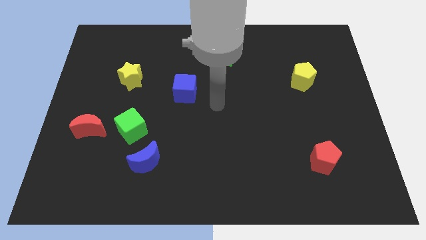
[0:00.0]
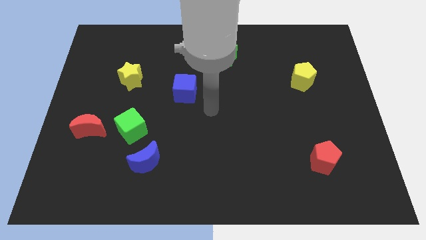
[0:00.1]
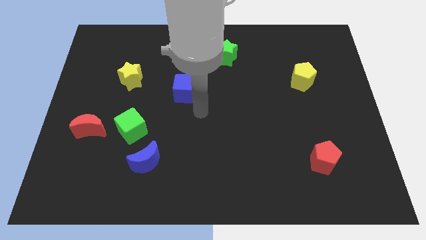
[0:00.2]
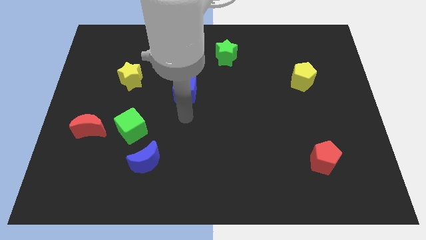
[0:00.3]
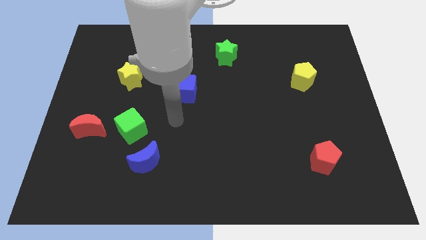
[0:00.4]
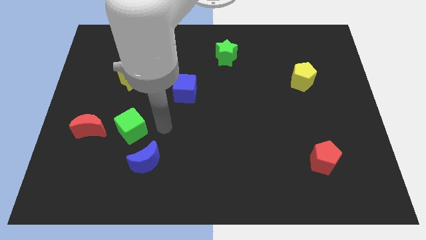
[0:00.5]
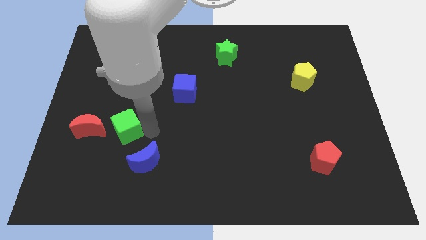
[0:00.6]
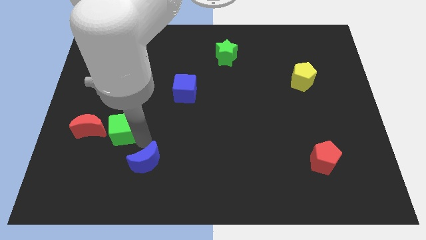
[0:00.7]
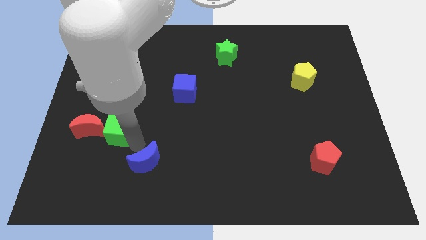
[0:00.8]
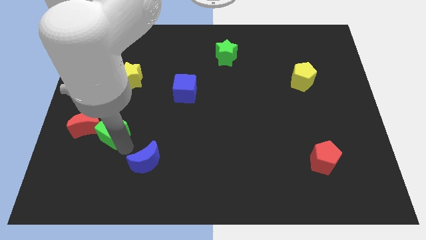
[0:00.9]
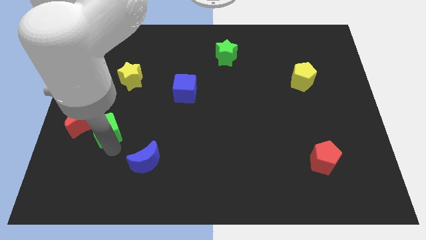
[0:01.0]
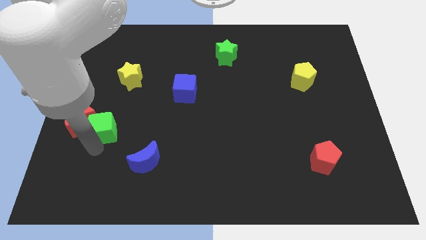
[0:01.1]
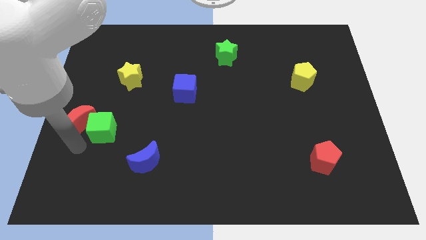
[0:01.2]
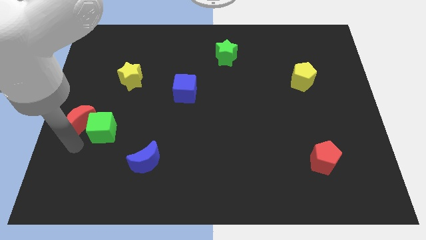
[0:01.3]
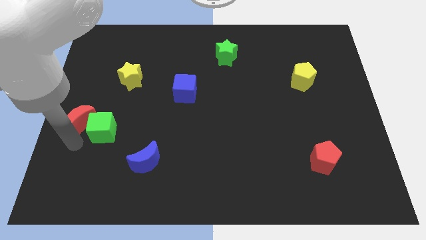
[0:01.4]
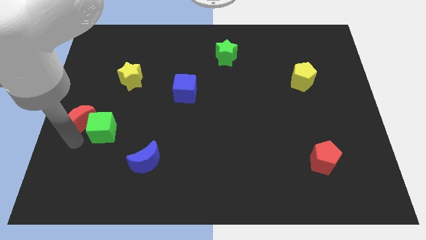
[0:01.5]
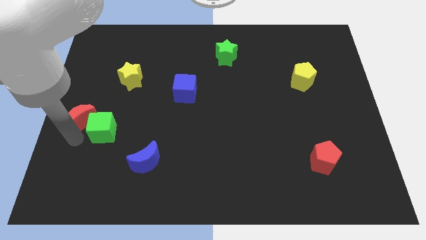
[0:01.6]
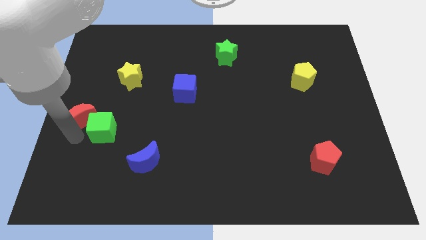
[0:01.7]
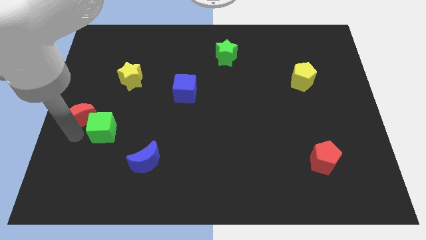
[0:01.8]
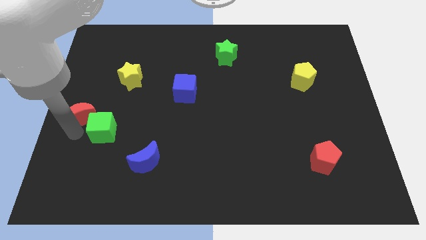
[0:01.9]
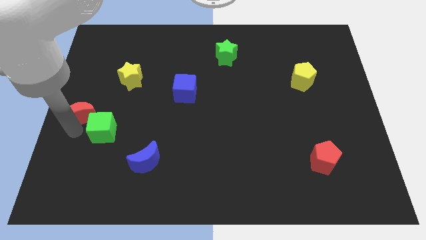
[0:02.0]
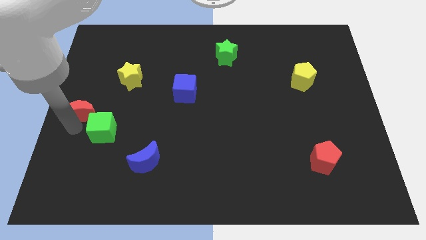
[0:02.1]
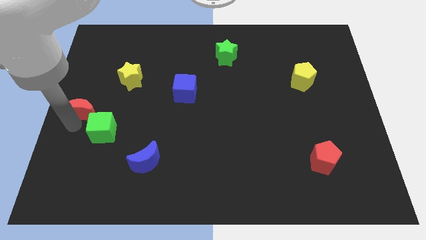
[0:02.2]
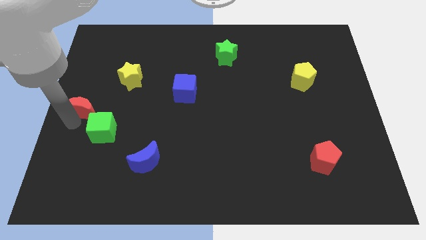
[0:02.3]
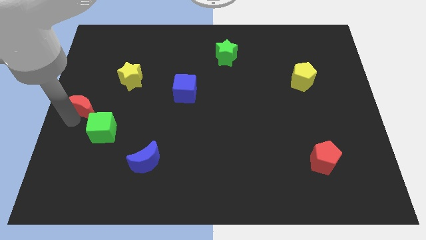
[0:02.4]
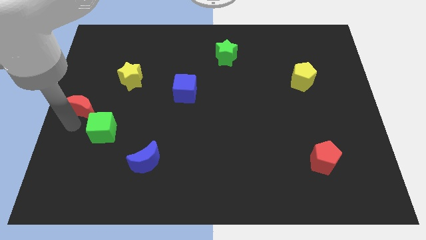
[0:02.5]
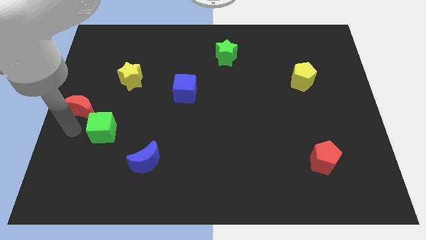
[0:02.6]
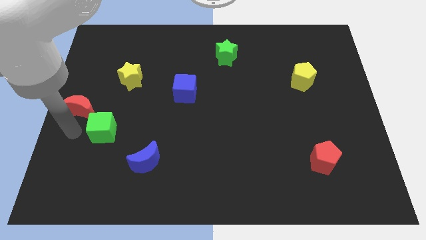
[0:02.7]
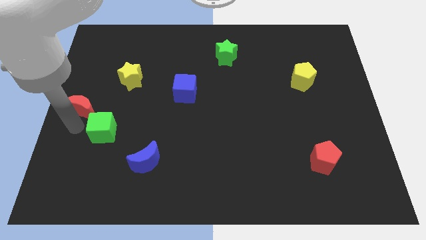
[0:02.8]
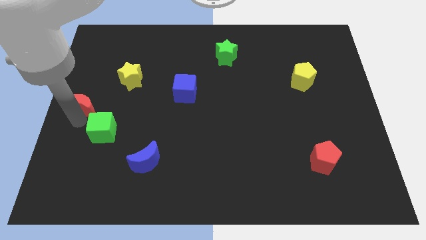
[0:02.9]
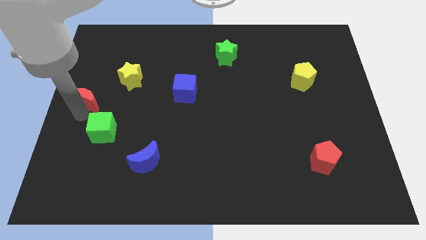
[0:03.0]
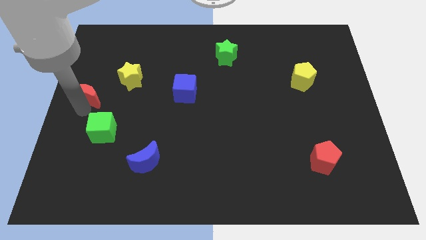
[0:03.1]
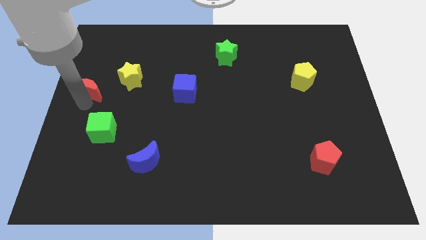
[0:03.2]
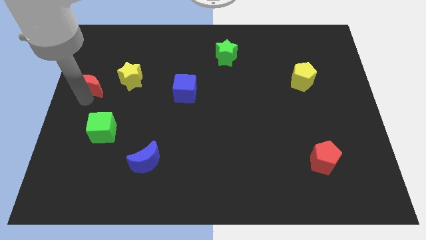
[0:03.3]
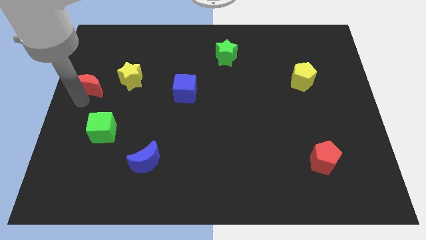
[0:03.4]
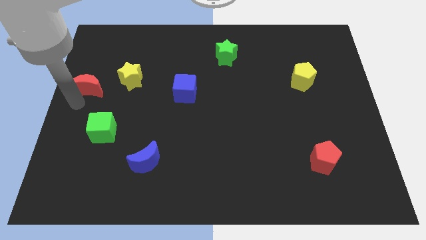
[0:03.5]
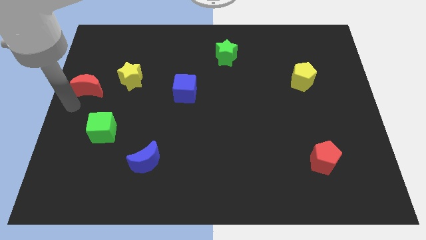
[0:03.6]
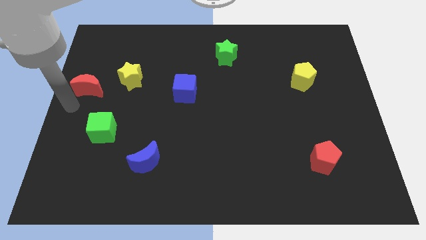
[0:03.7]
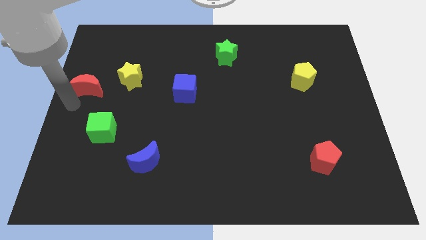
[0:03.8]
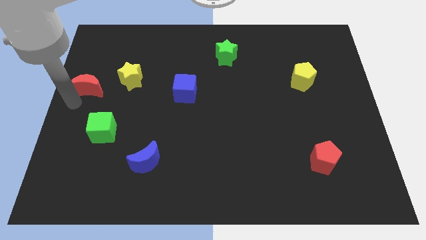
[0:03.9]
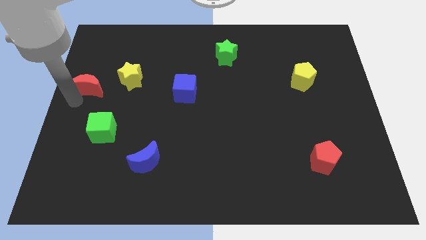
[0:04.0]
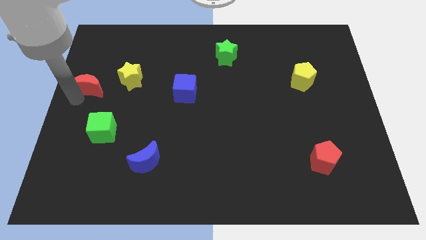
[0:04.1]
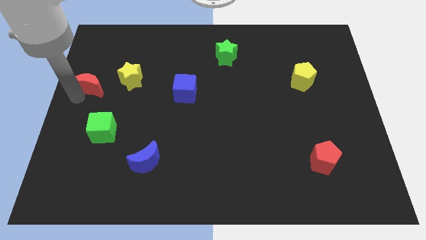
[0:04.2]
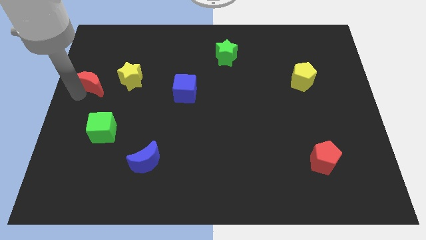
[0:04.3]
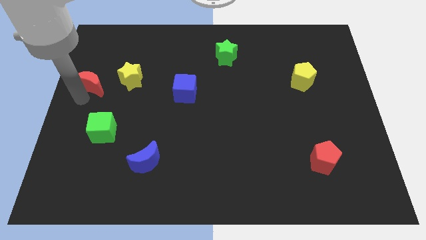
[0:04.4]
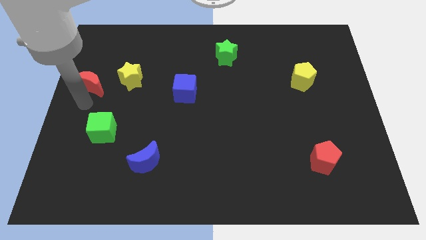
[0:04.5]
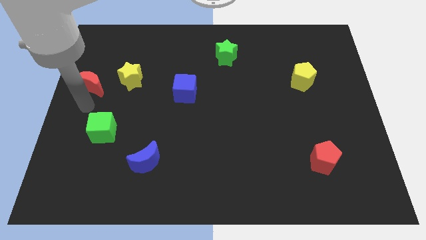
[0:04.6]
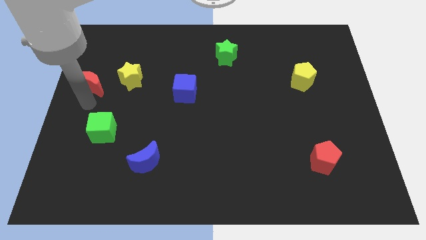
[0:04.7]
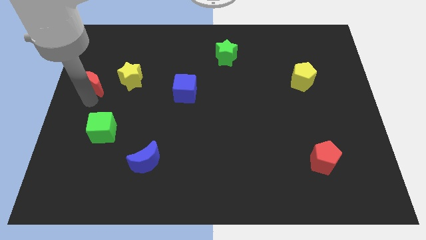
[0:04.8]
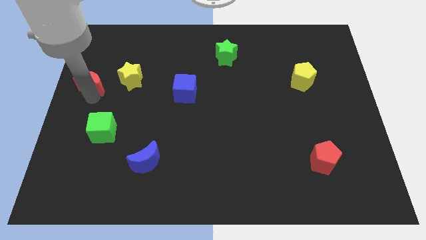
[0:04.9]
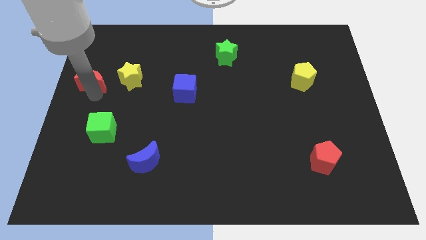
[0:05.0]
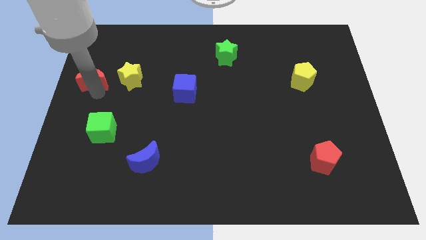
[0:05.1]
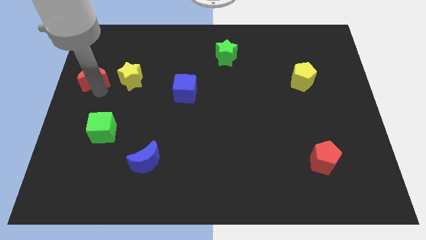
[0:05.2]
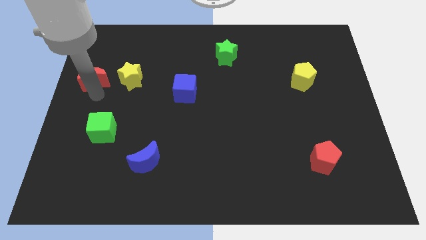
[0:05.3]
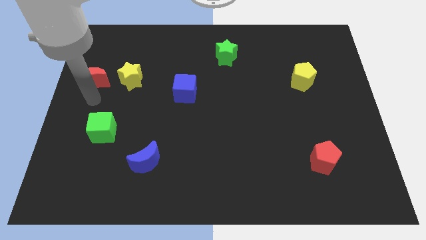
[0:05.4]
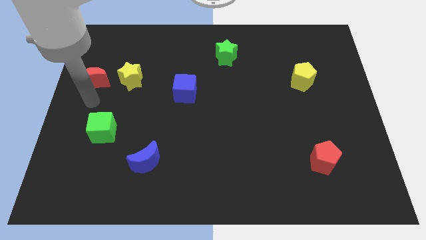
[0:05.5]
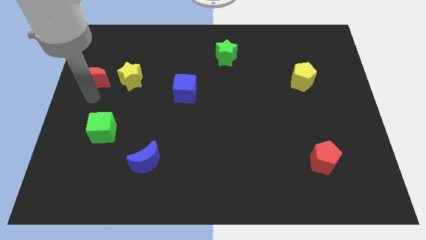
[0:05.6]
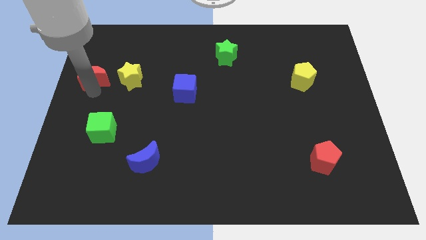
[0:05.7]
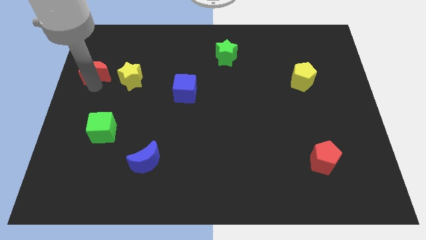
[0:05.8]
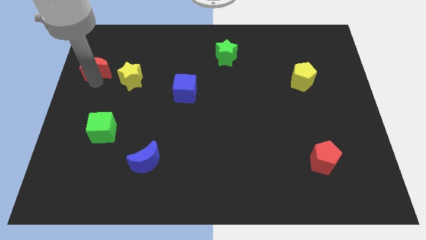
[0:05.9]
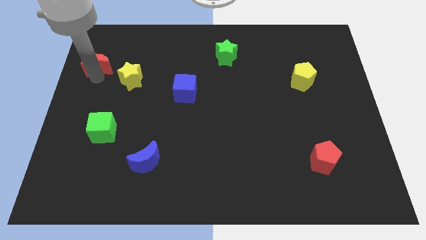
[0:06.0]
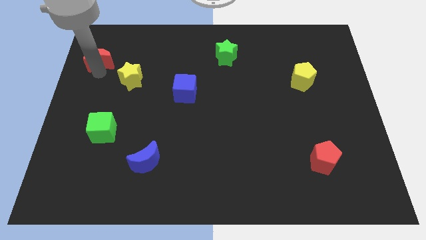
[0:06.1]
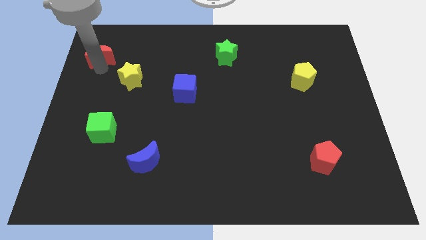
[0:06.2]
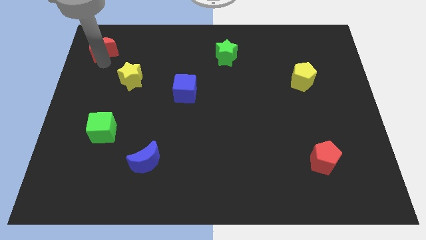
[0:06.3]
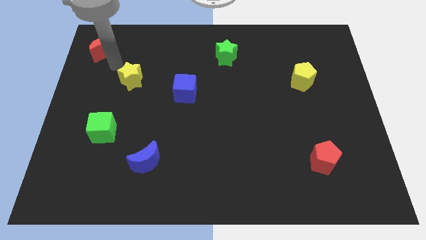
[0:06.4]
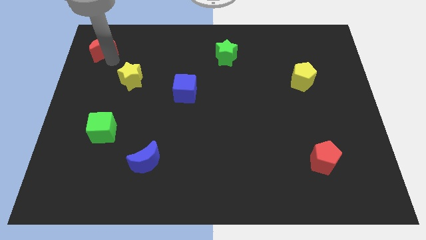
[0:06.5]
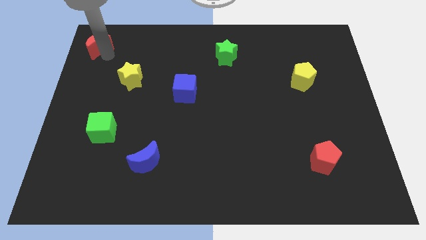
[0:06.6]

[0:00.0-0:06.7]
move the red moon to the top left corner
